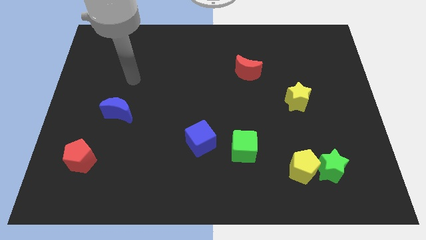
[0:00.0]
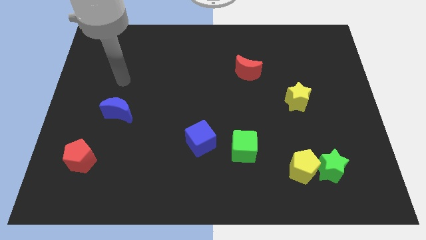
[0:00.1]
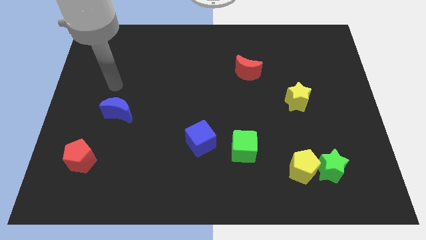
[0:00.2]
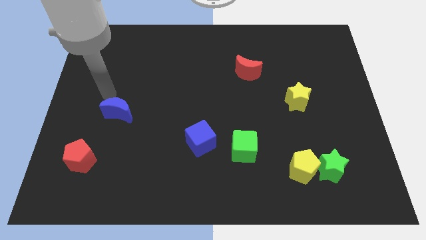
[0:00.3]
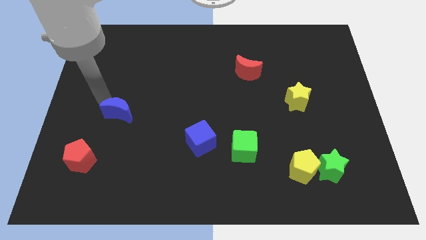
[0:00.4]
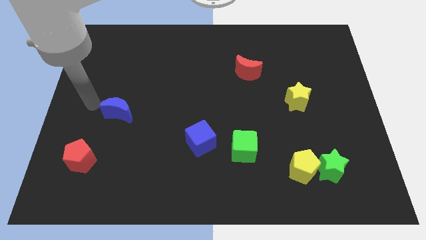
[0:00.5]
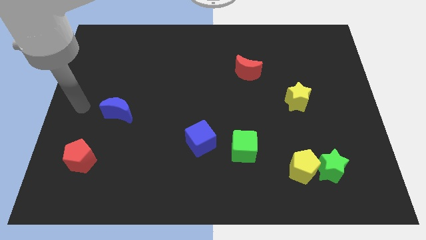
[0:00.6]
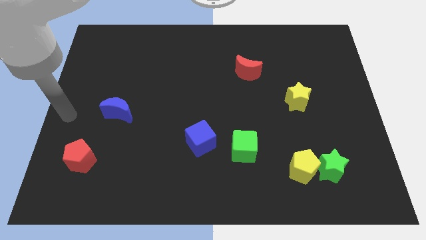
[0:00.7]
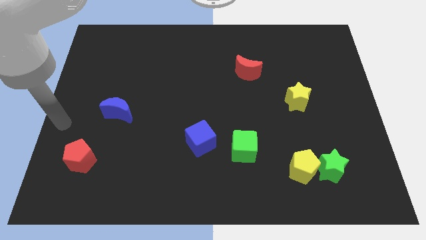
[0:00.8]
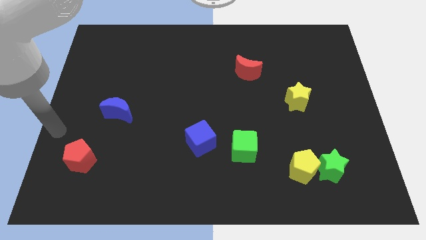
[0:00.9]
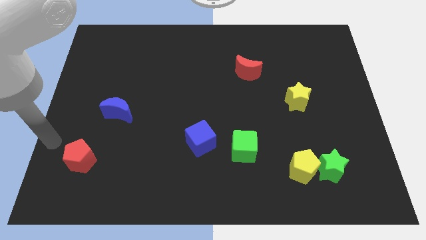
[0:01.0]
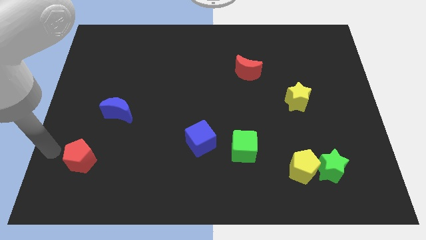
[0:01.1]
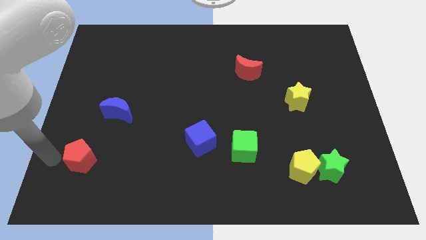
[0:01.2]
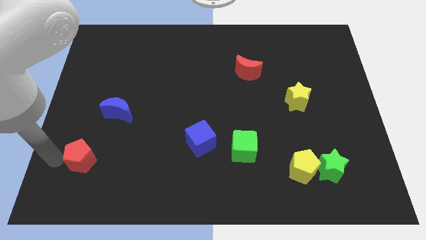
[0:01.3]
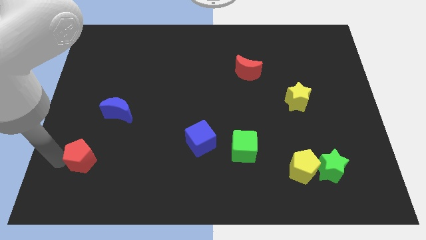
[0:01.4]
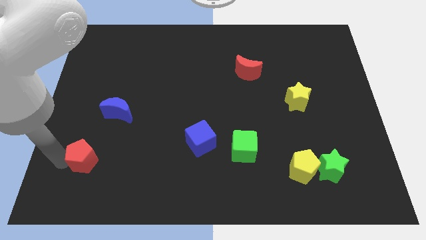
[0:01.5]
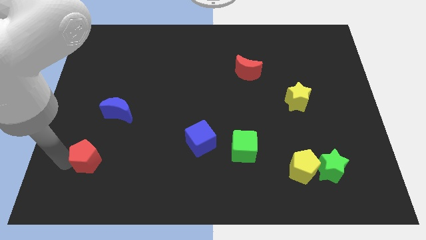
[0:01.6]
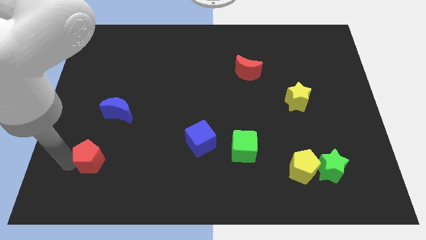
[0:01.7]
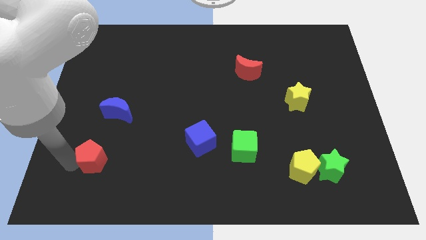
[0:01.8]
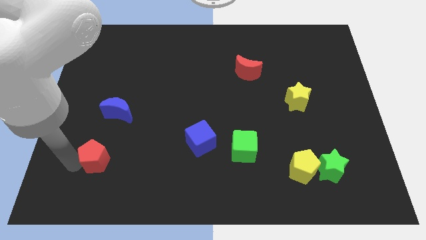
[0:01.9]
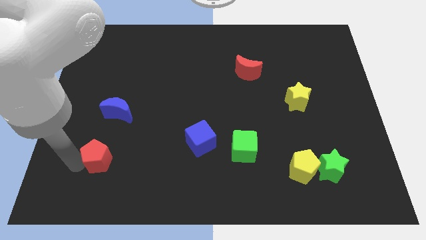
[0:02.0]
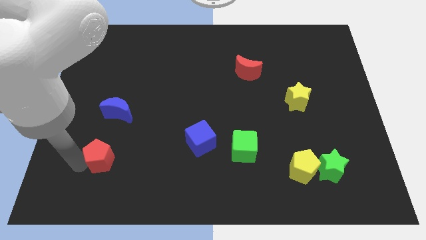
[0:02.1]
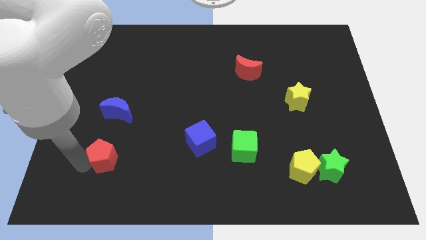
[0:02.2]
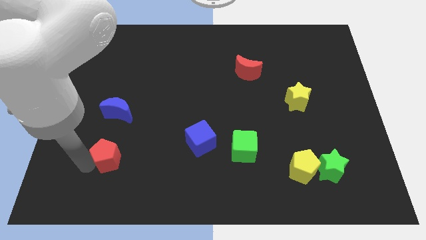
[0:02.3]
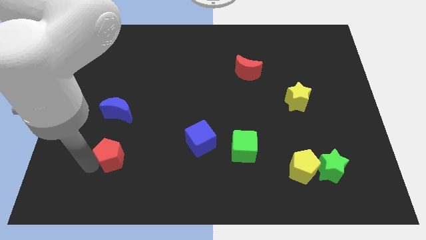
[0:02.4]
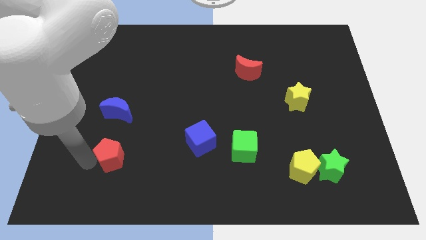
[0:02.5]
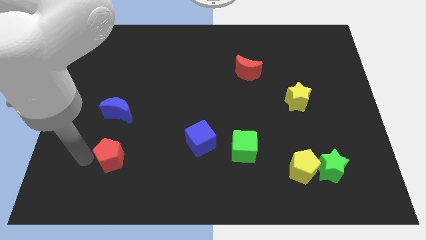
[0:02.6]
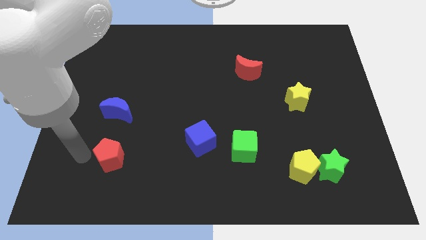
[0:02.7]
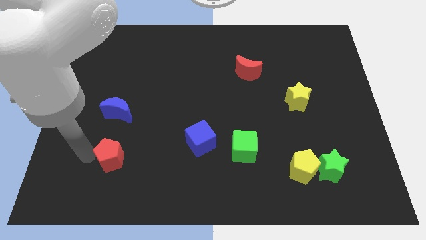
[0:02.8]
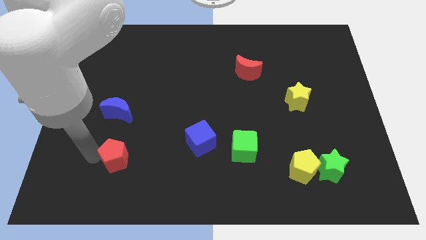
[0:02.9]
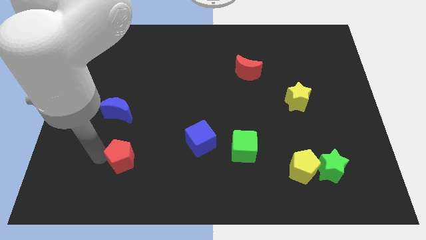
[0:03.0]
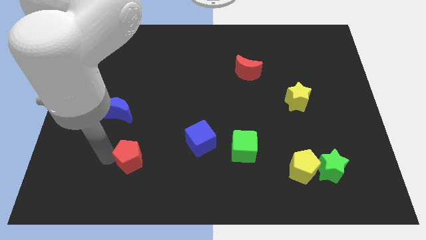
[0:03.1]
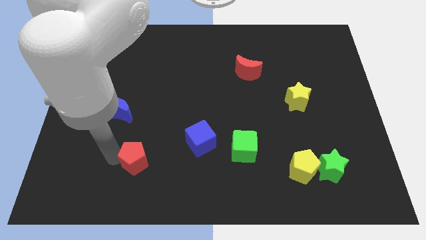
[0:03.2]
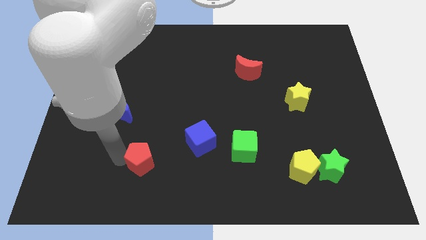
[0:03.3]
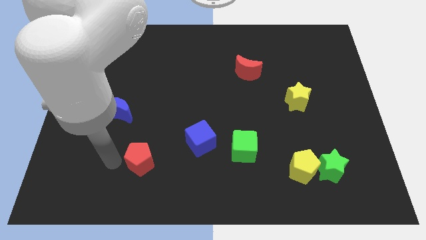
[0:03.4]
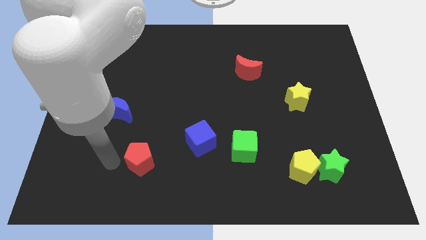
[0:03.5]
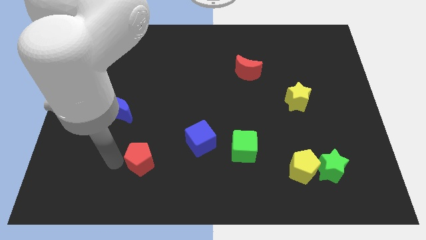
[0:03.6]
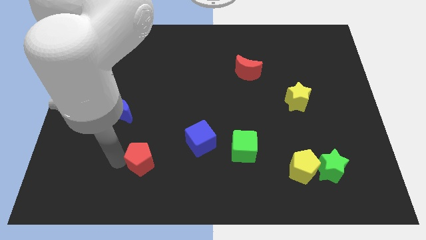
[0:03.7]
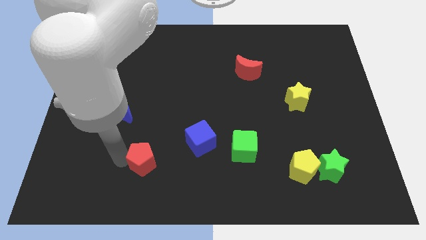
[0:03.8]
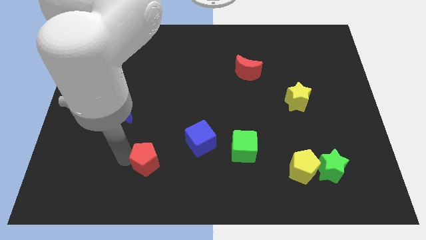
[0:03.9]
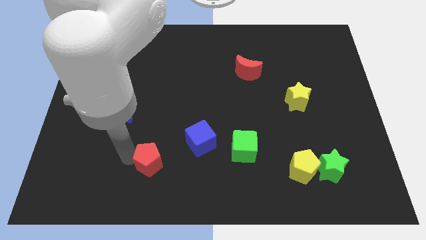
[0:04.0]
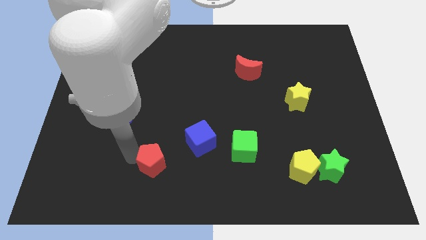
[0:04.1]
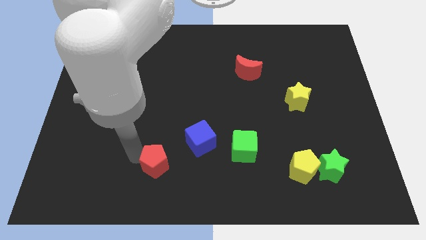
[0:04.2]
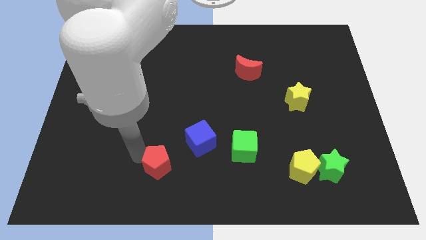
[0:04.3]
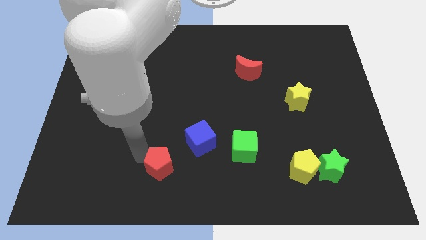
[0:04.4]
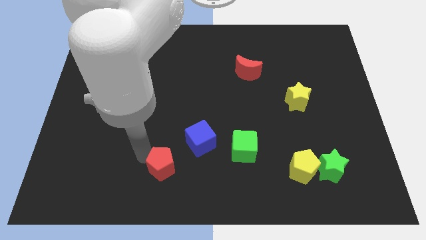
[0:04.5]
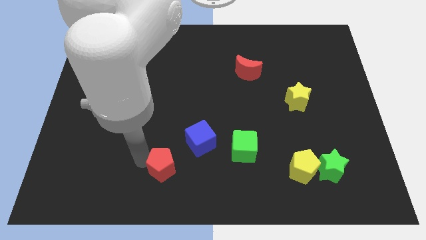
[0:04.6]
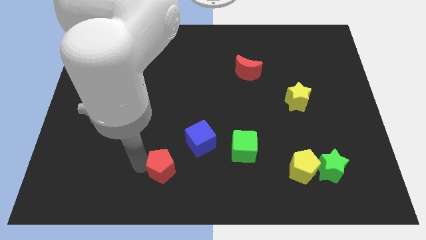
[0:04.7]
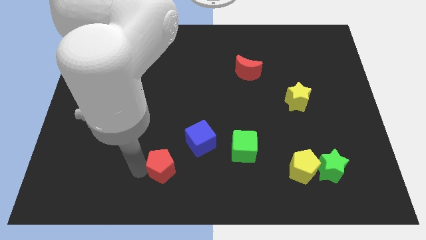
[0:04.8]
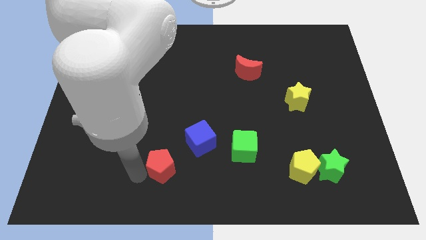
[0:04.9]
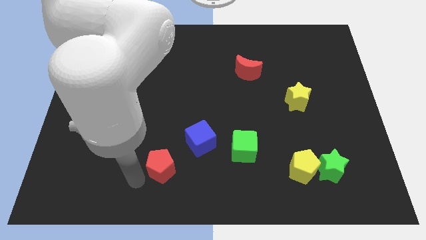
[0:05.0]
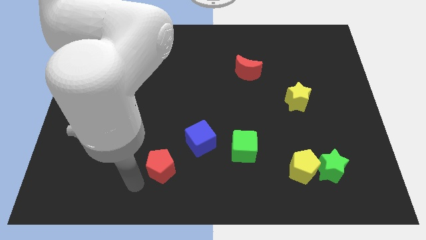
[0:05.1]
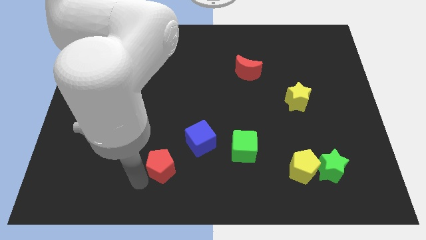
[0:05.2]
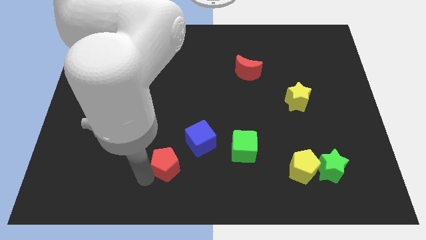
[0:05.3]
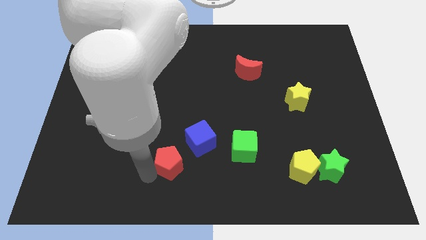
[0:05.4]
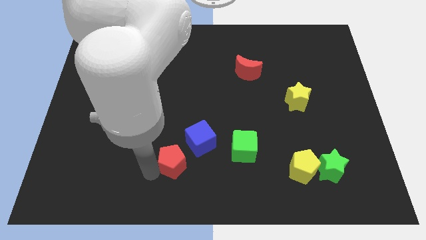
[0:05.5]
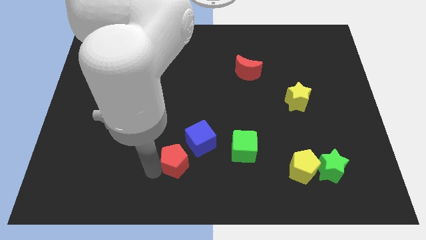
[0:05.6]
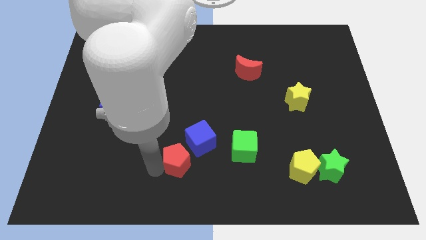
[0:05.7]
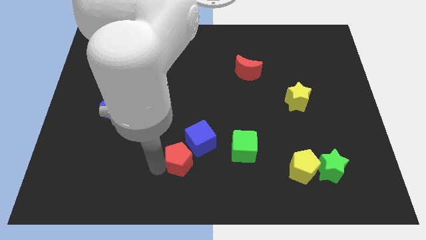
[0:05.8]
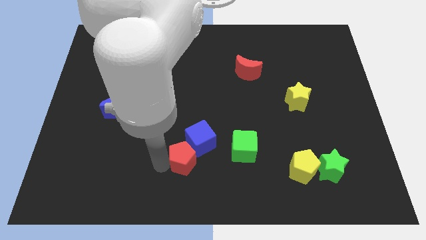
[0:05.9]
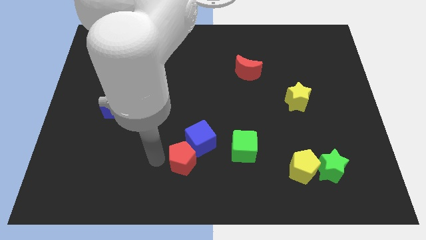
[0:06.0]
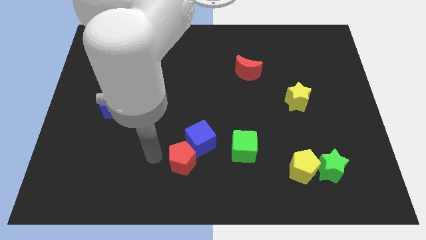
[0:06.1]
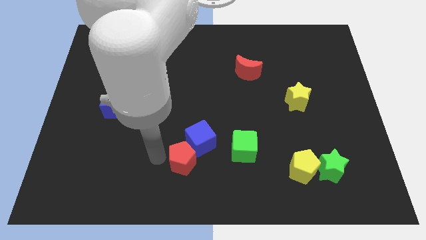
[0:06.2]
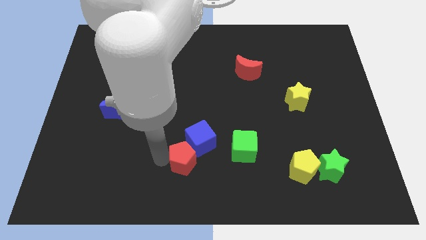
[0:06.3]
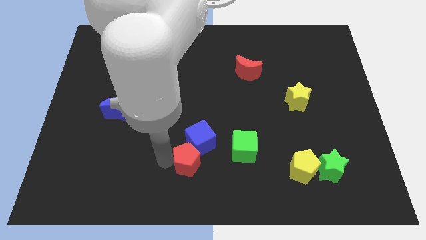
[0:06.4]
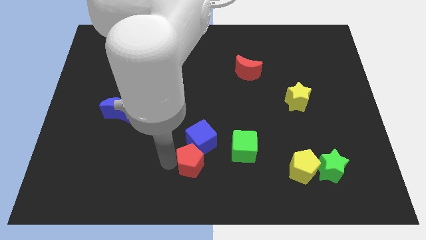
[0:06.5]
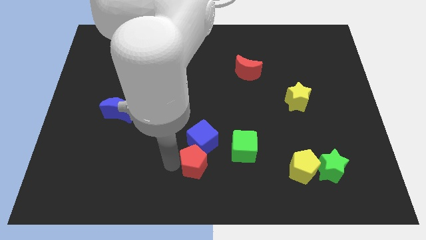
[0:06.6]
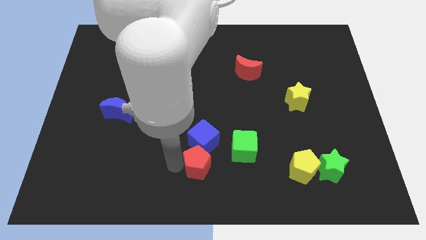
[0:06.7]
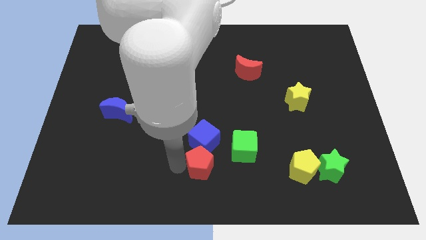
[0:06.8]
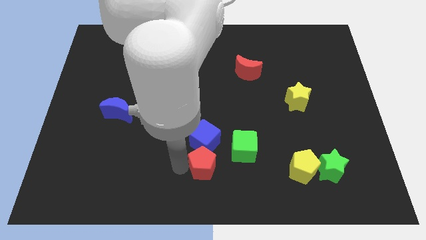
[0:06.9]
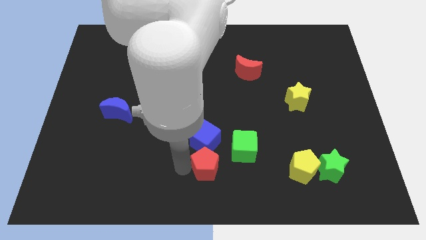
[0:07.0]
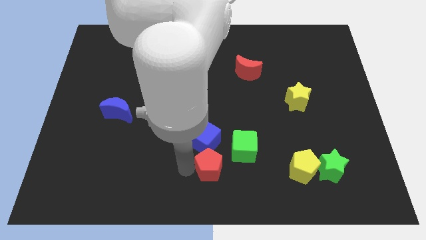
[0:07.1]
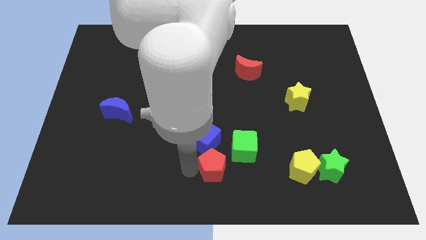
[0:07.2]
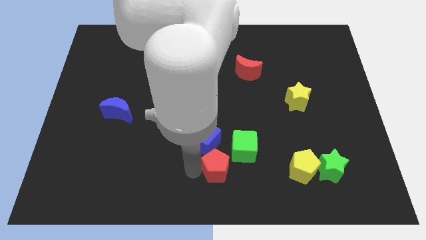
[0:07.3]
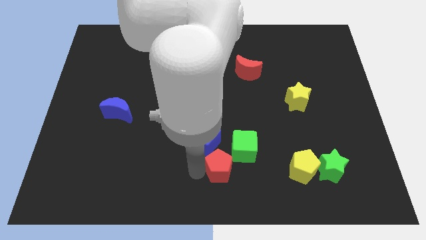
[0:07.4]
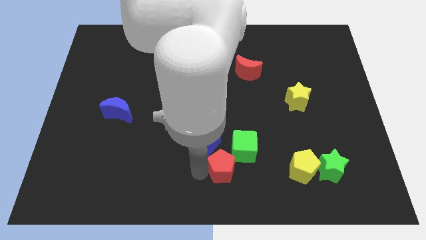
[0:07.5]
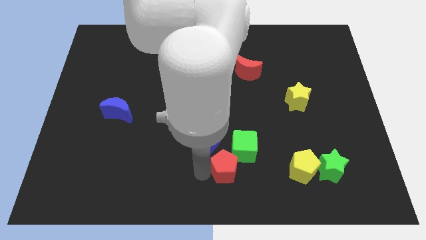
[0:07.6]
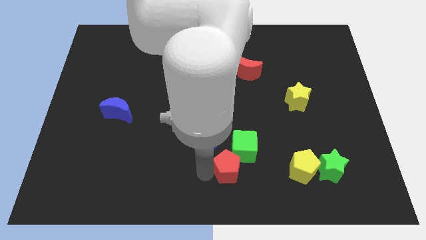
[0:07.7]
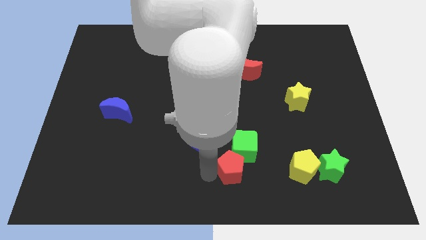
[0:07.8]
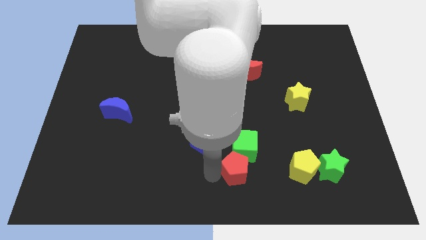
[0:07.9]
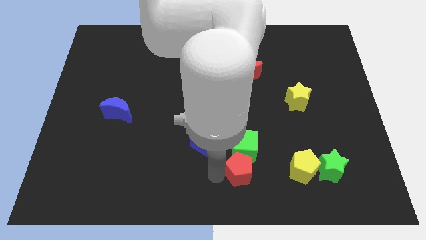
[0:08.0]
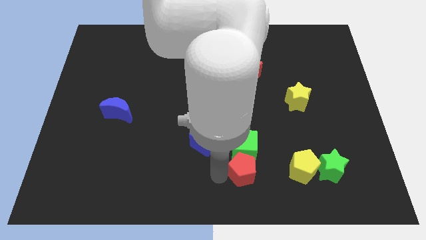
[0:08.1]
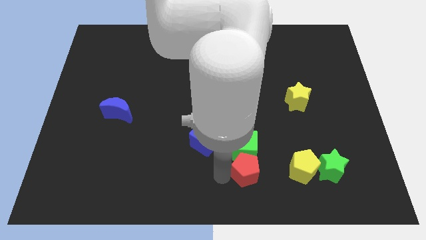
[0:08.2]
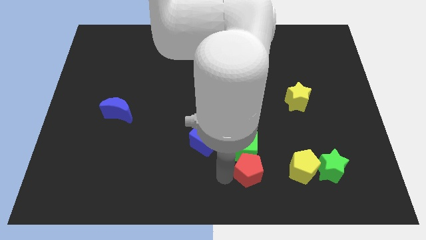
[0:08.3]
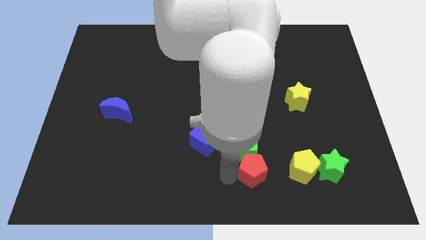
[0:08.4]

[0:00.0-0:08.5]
put the red pentagon left of the green star
